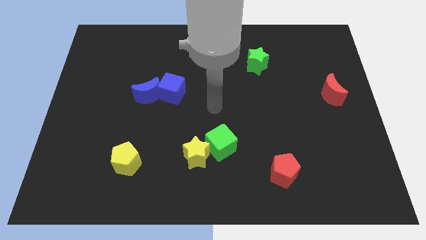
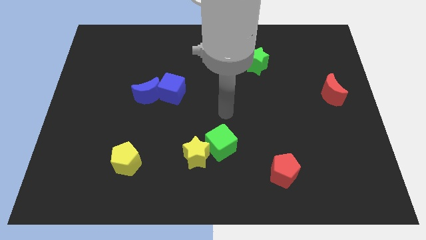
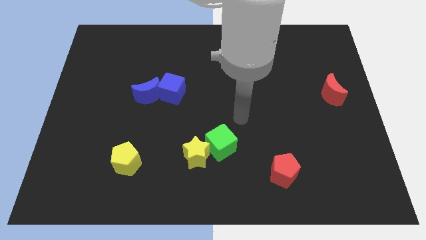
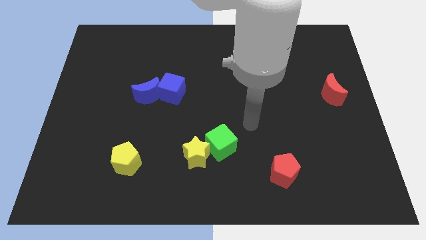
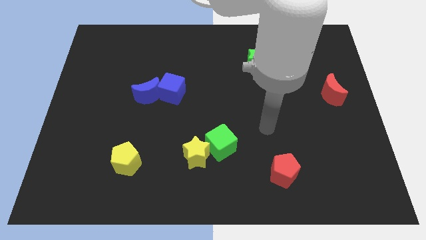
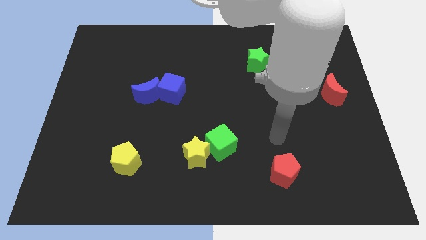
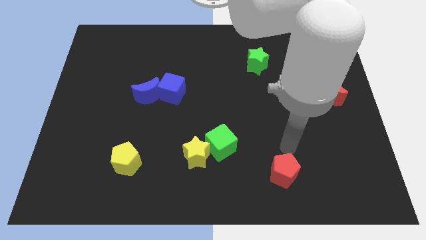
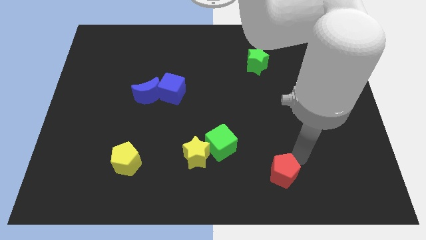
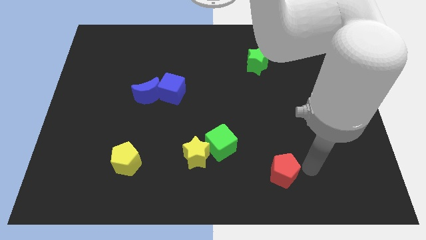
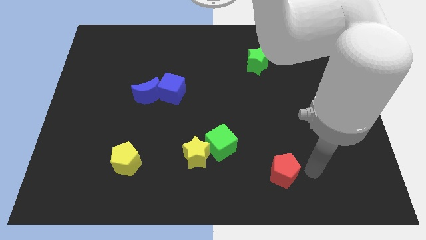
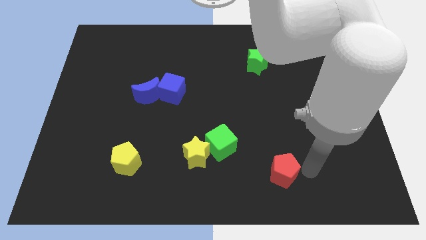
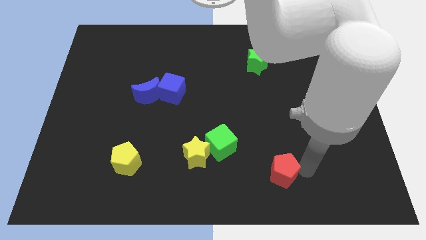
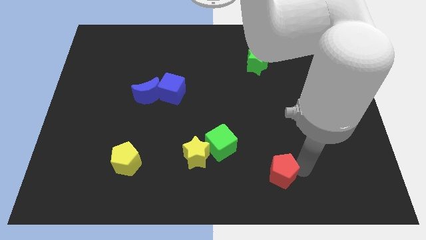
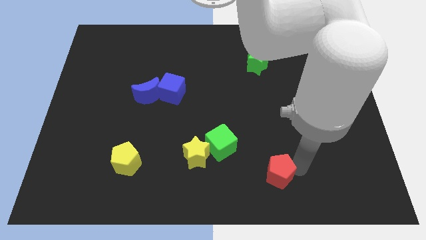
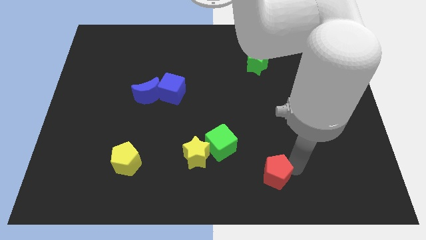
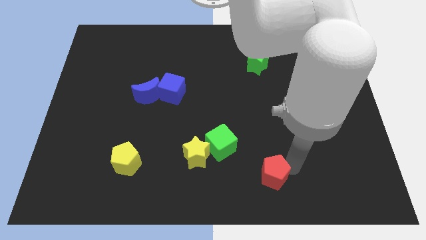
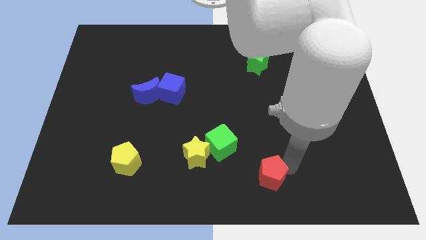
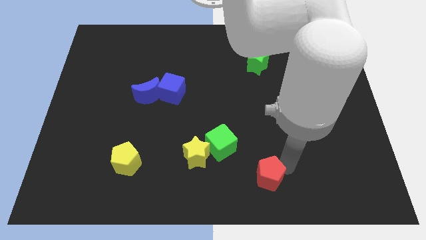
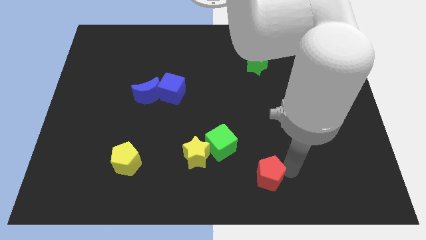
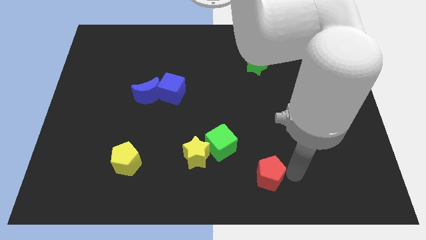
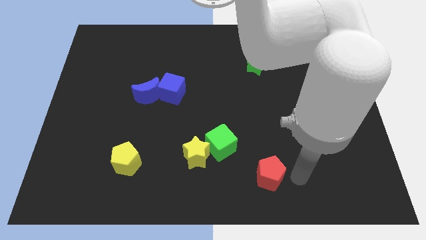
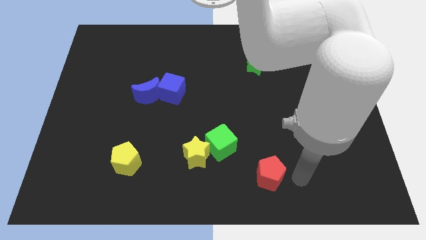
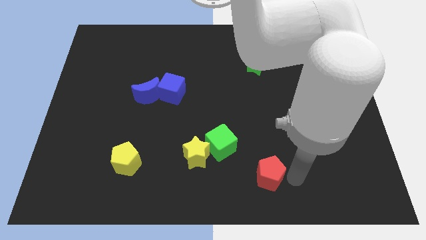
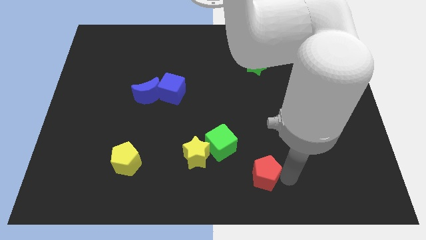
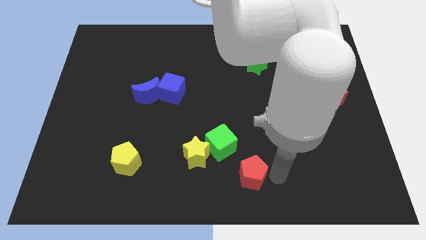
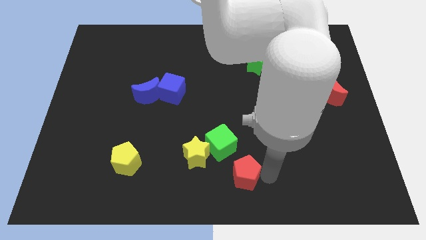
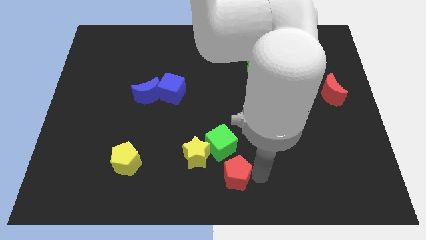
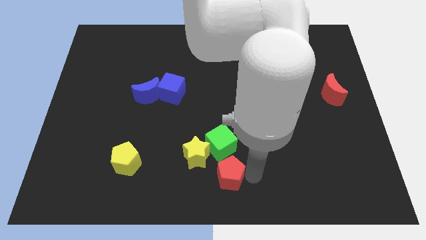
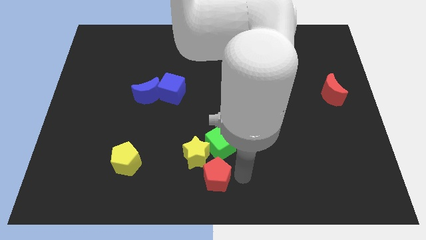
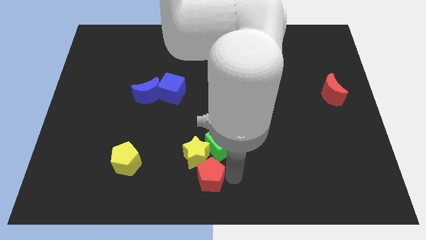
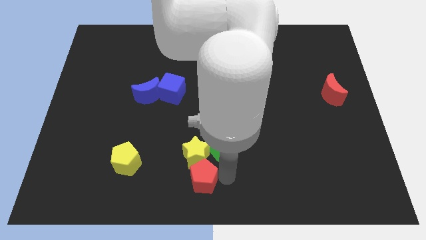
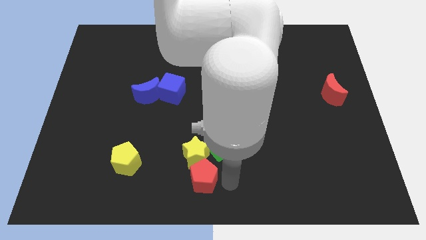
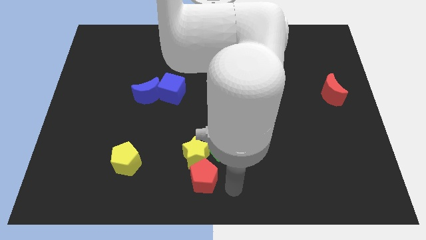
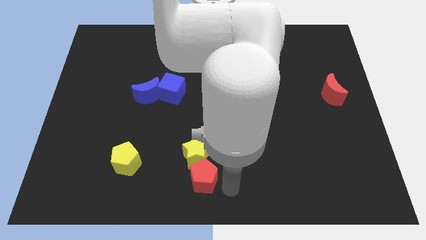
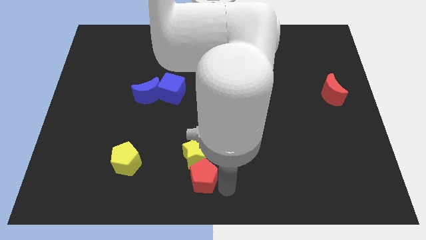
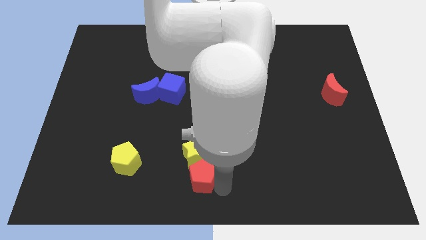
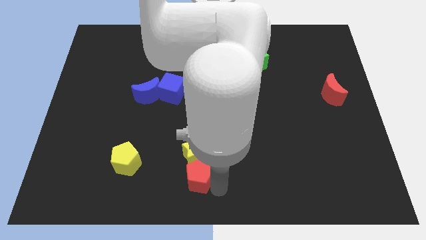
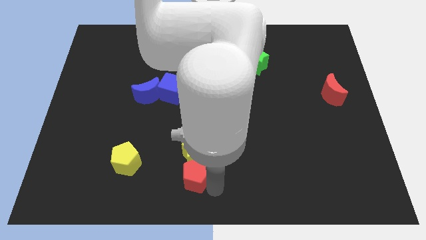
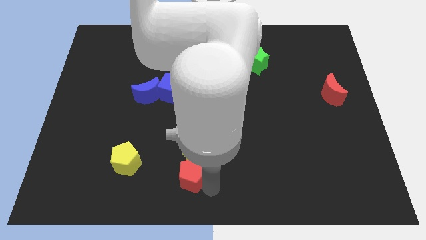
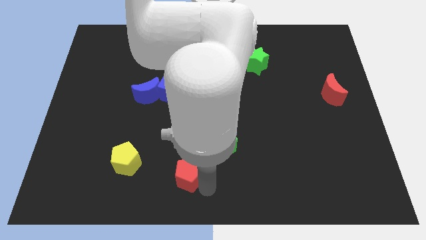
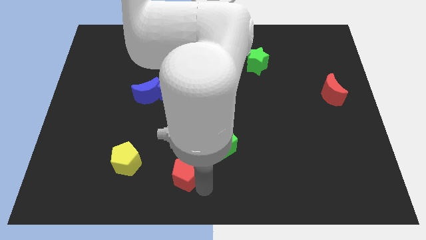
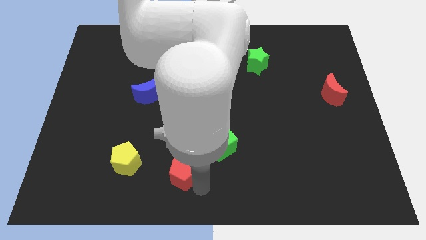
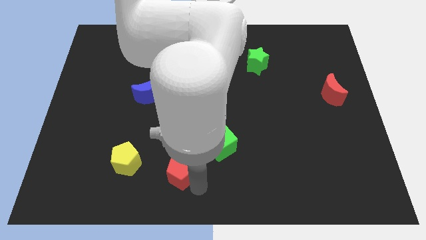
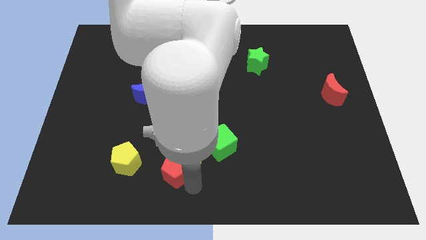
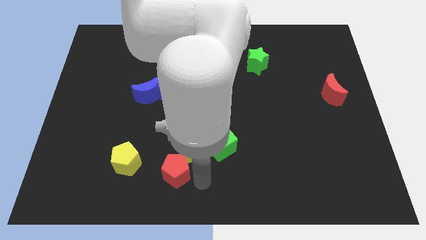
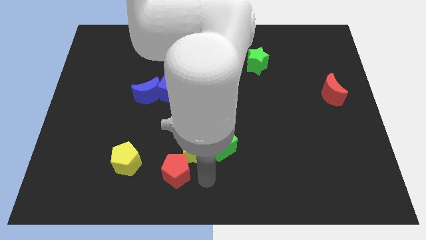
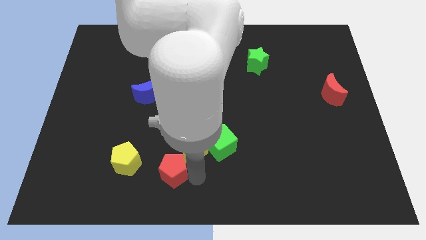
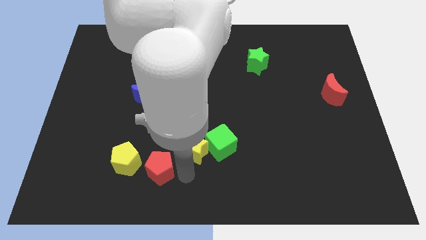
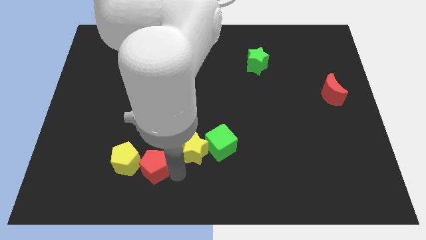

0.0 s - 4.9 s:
push the red pentagon towards the yellow pentagon

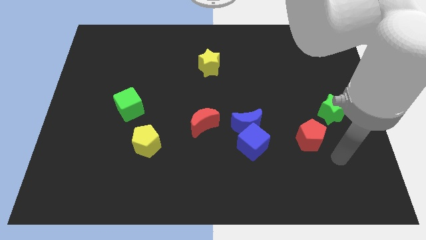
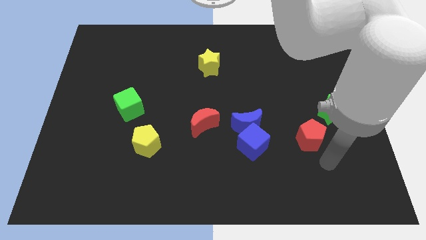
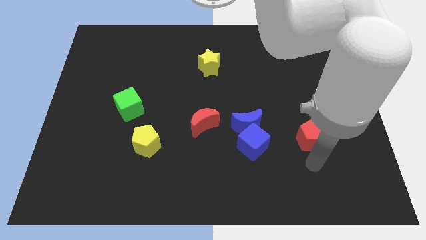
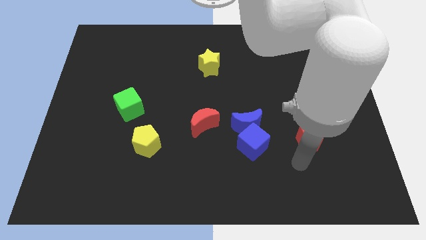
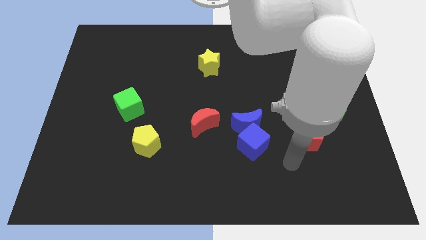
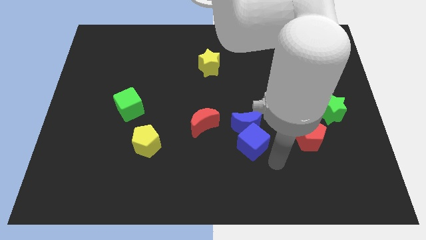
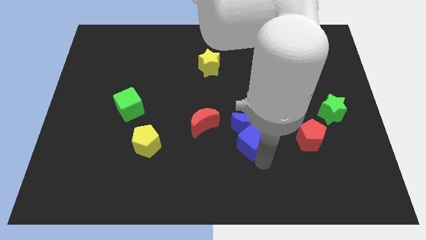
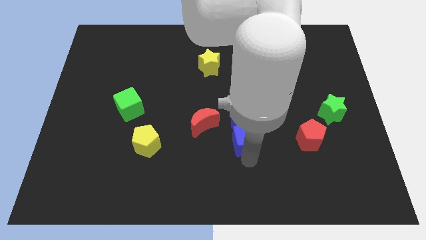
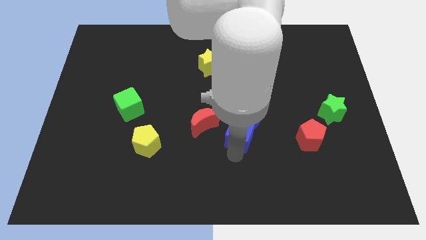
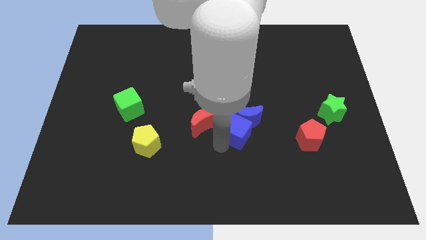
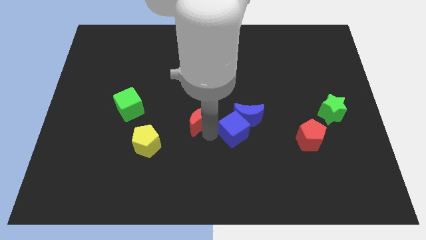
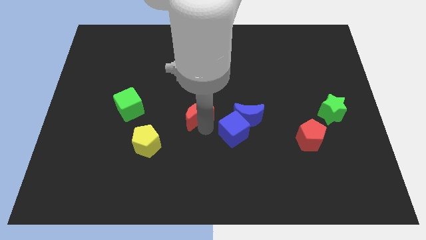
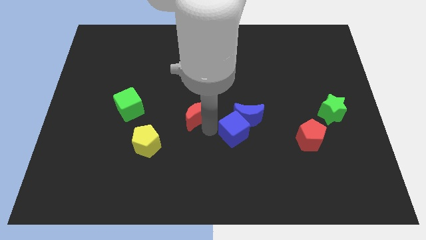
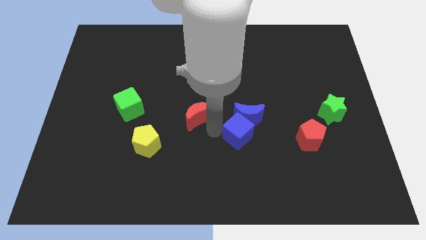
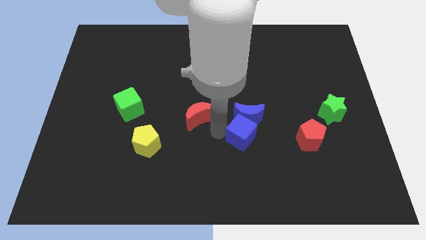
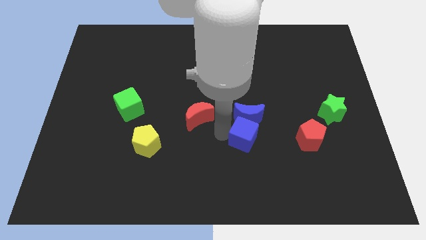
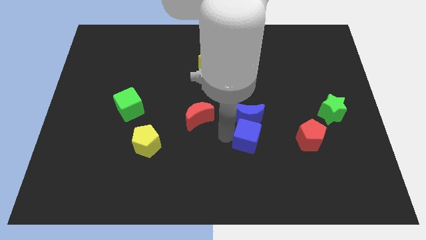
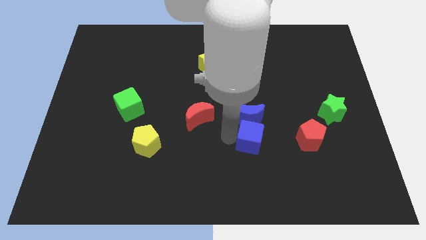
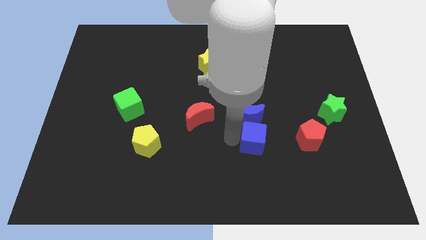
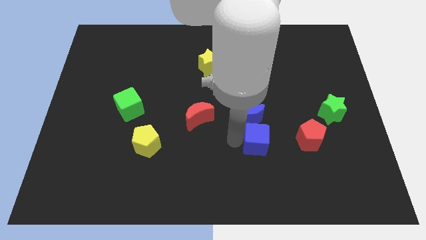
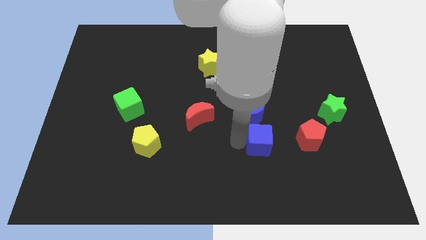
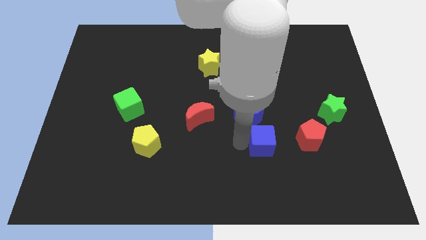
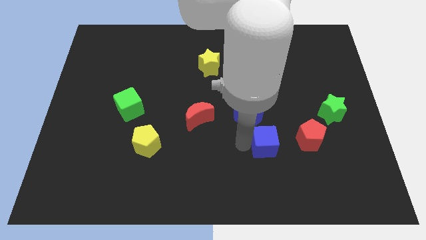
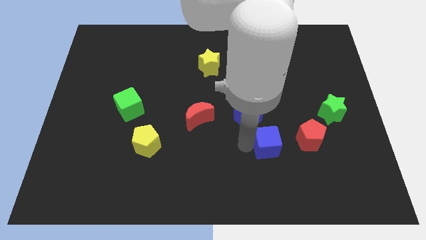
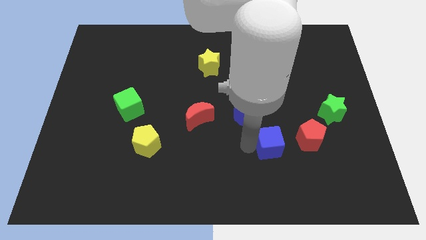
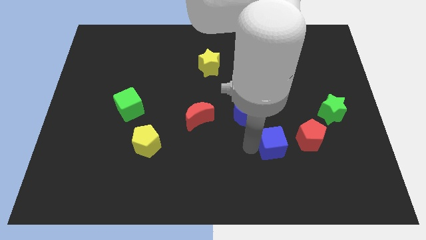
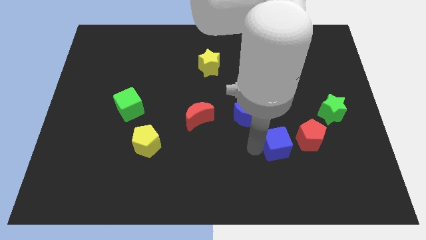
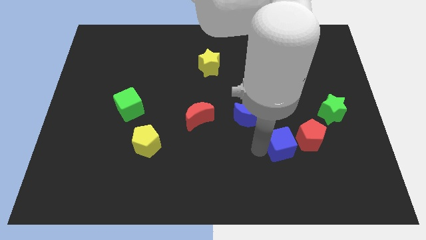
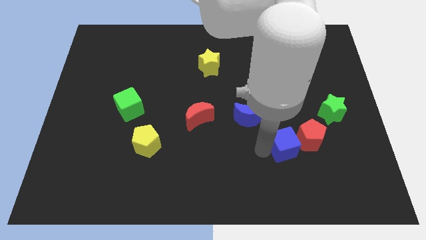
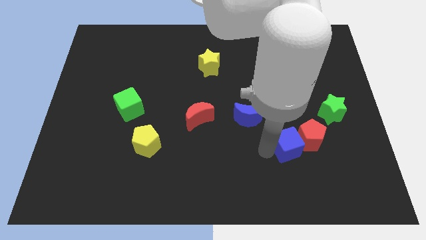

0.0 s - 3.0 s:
push the blue cube to the red pentagon
